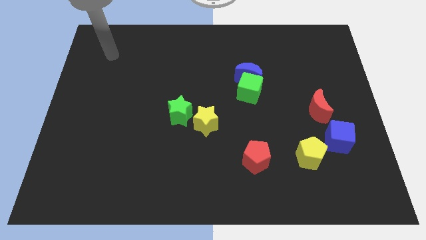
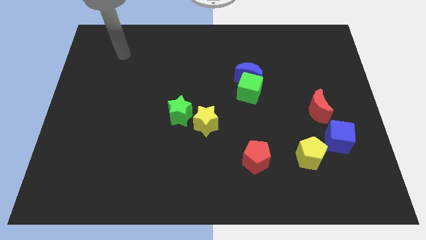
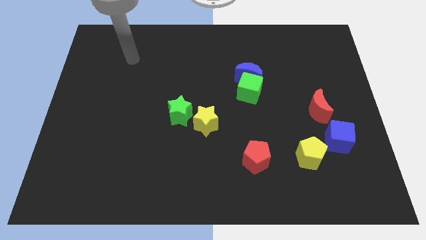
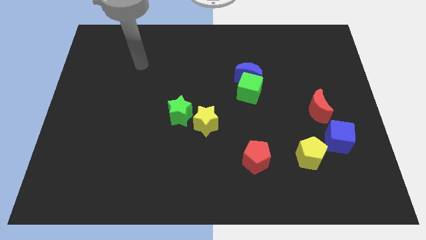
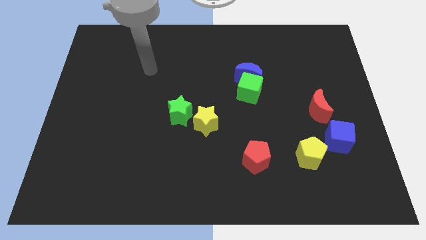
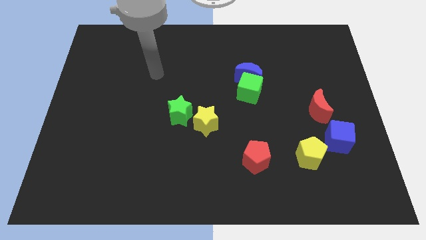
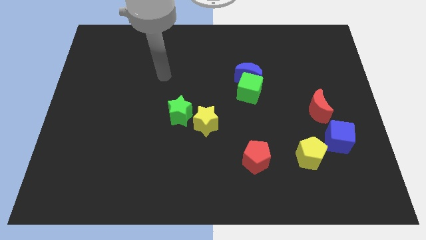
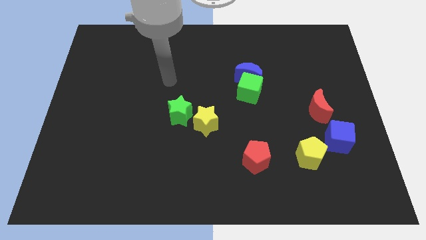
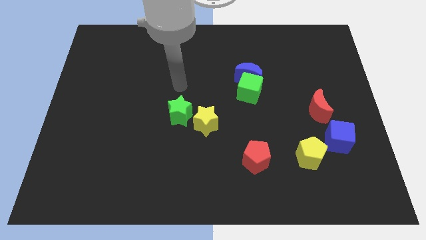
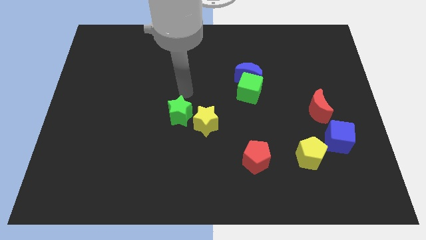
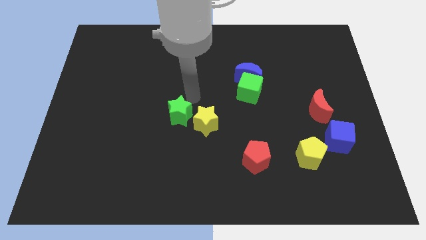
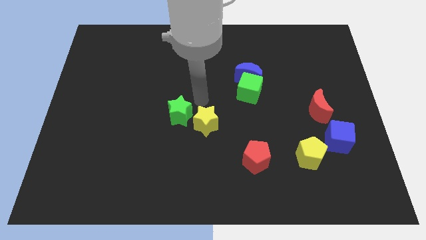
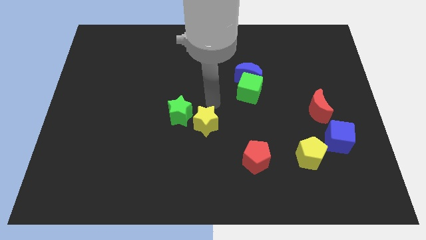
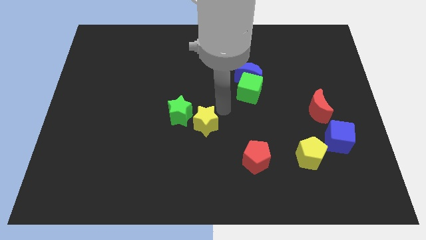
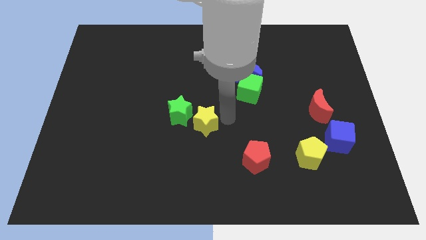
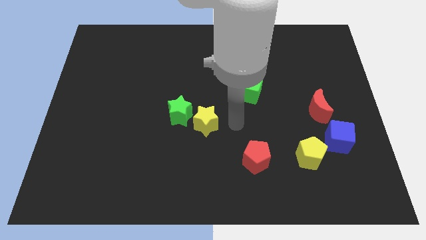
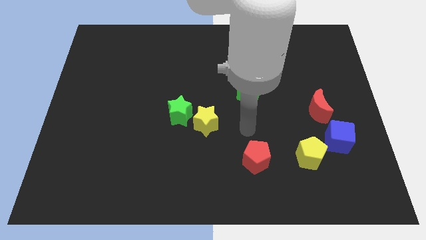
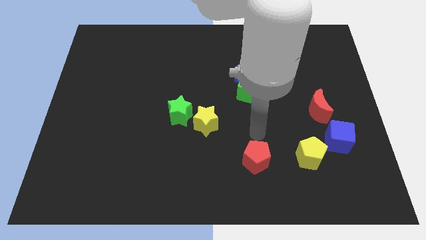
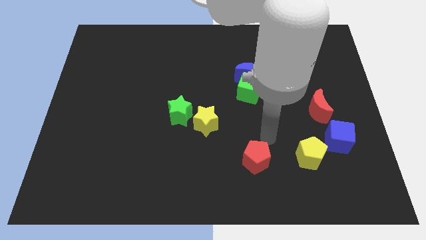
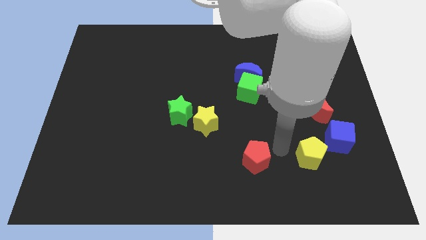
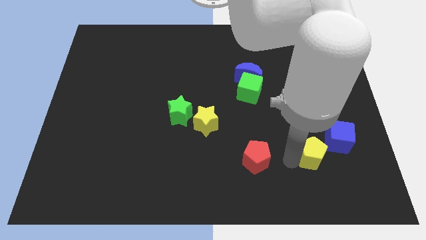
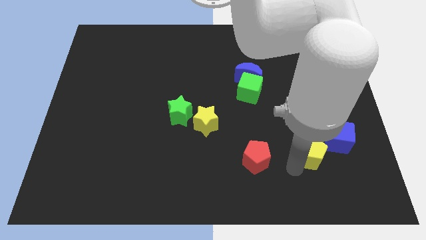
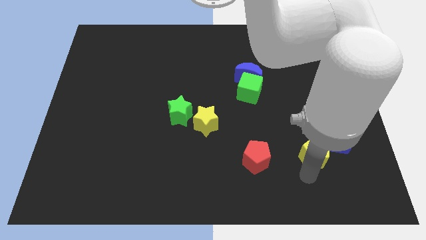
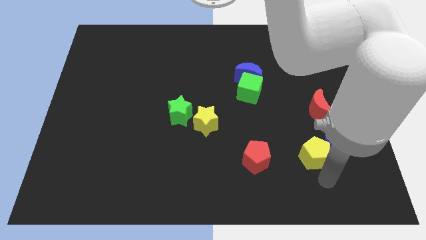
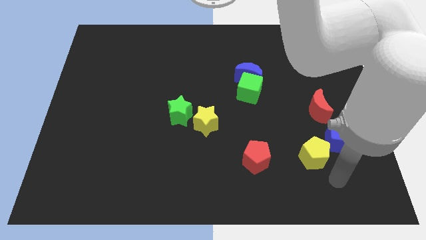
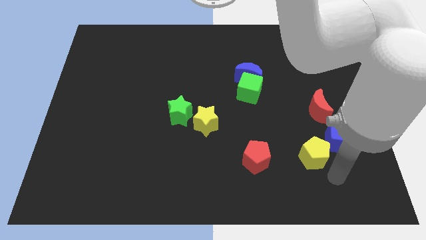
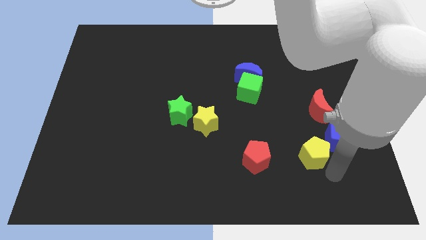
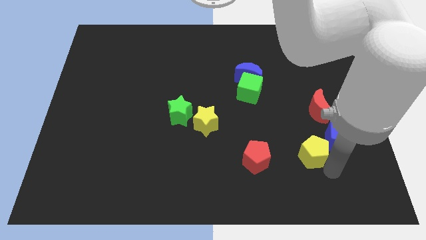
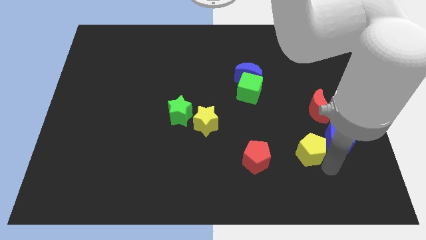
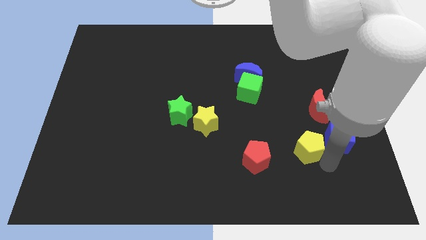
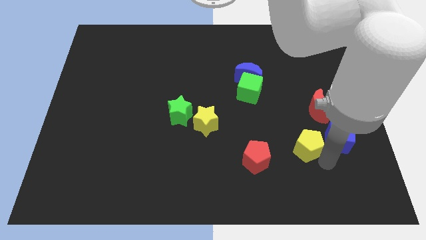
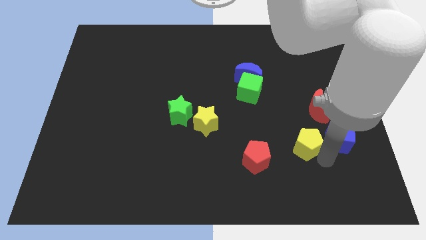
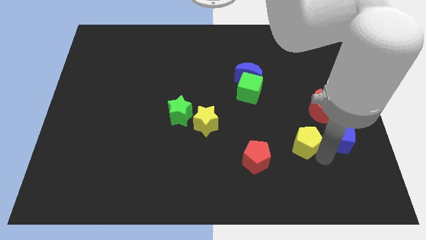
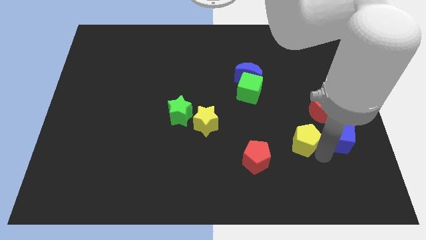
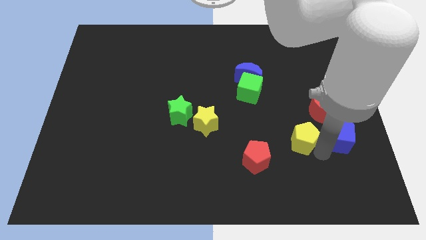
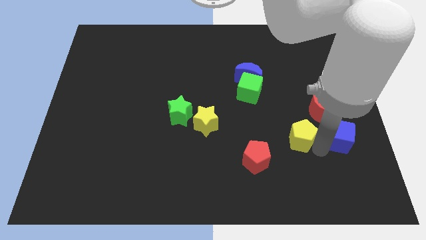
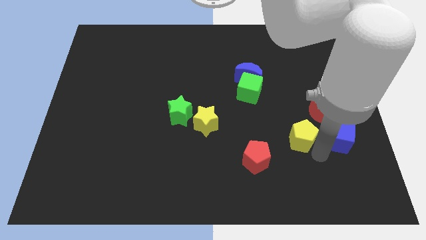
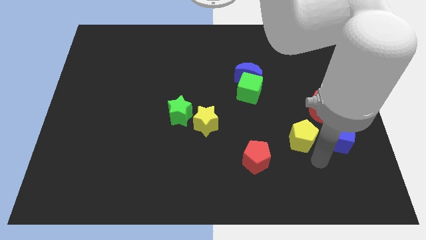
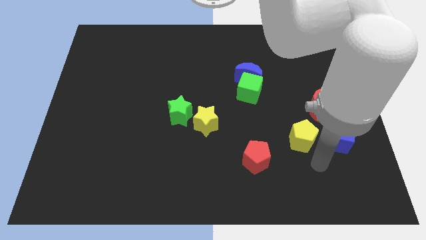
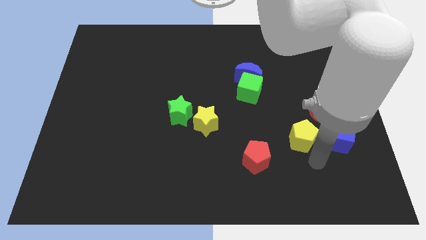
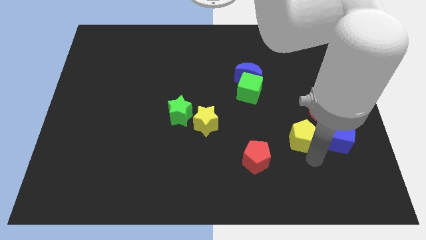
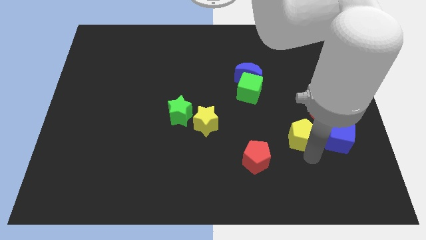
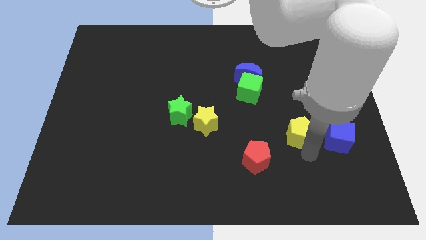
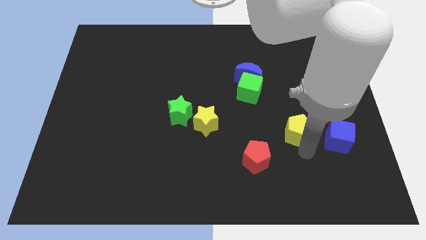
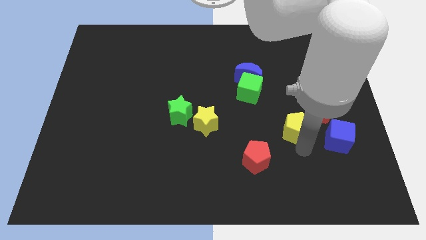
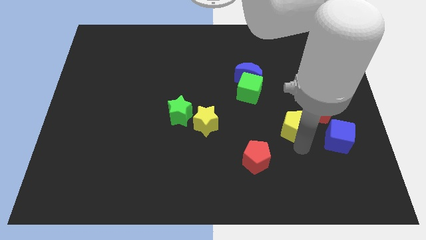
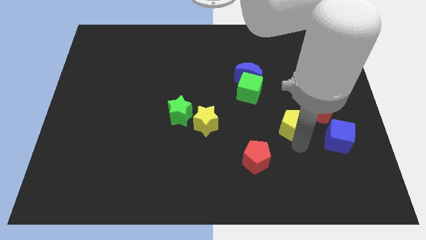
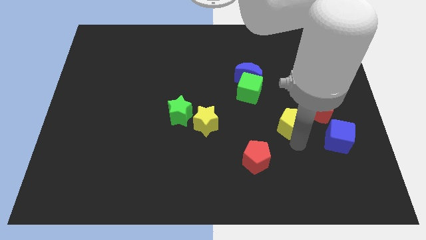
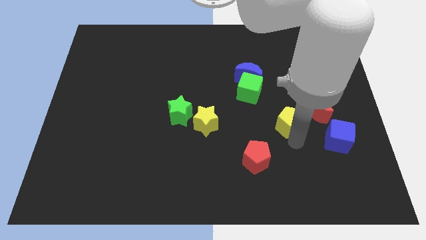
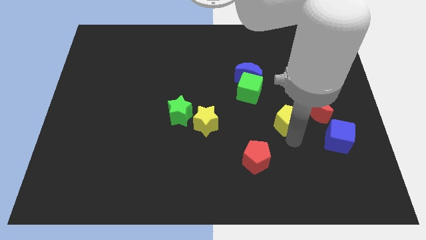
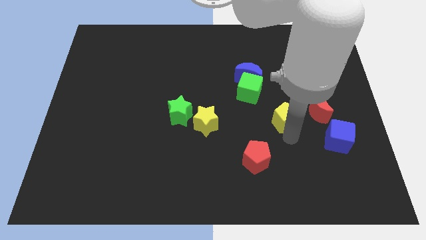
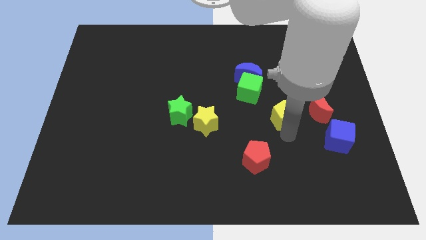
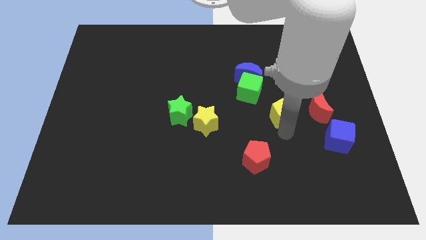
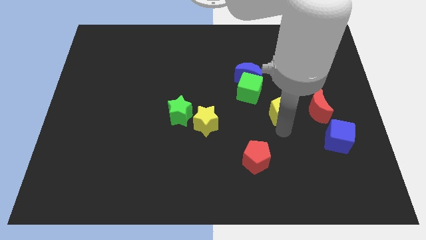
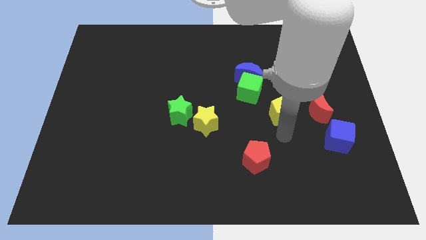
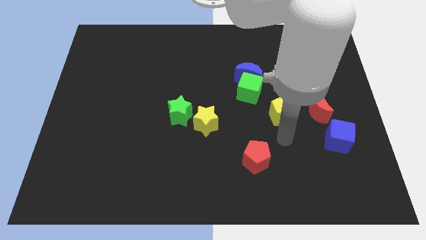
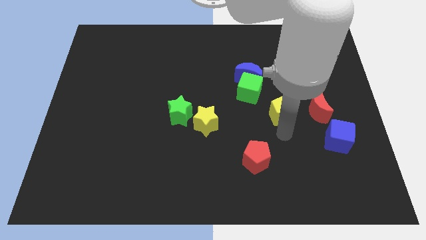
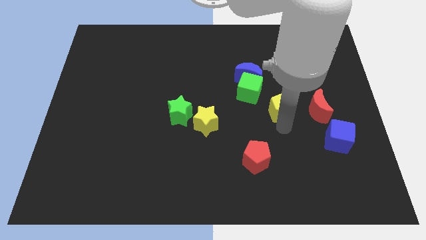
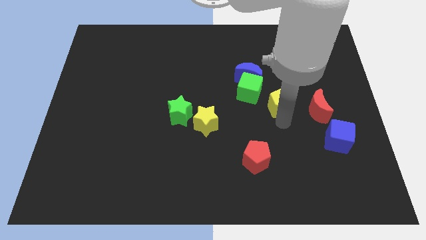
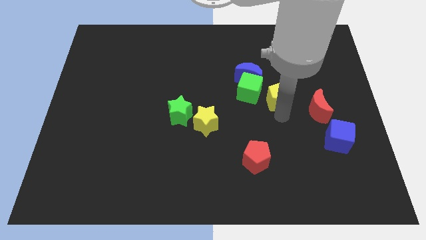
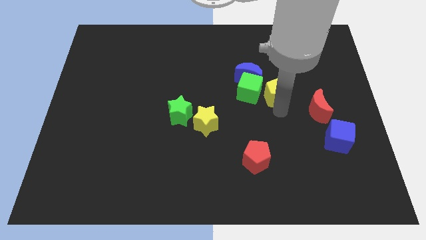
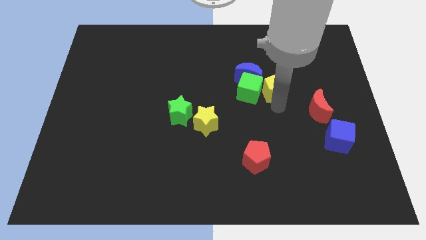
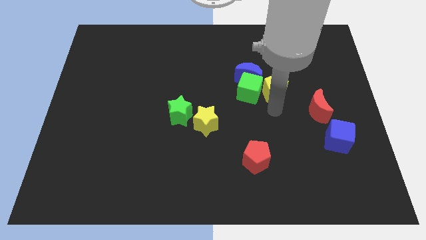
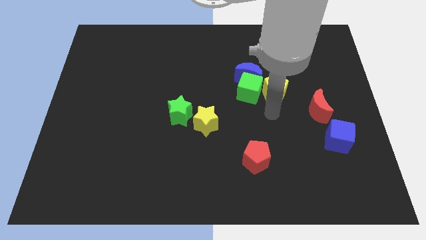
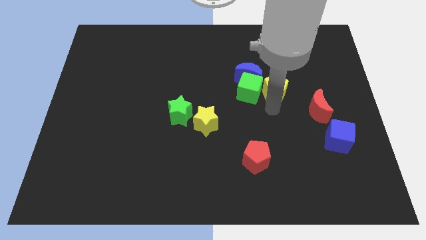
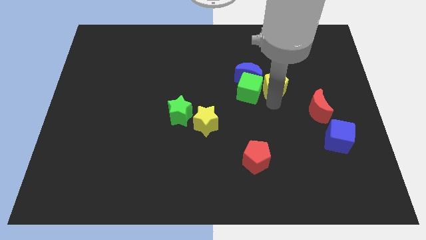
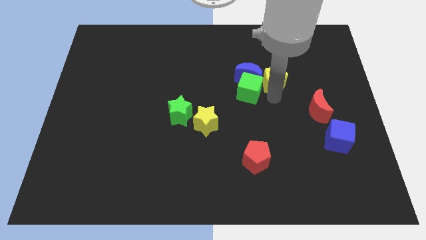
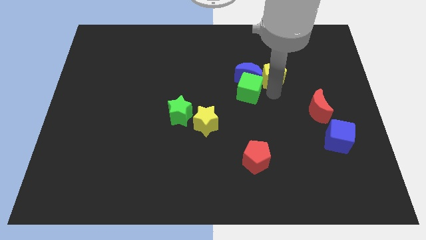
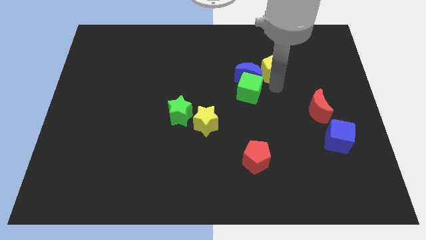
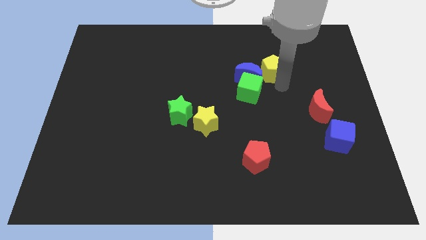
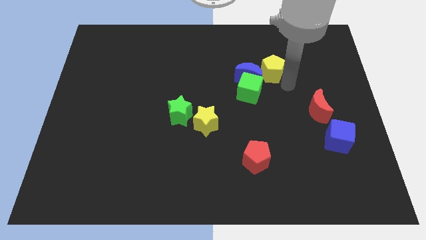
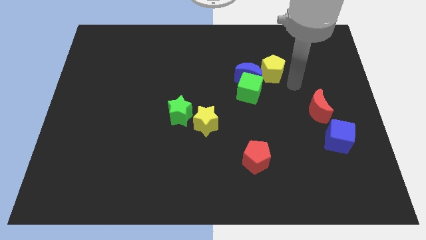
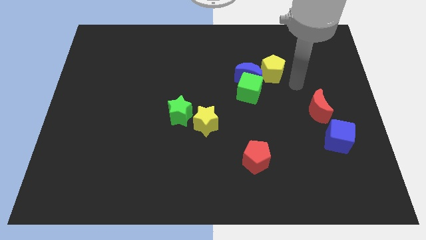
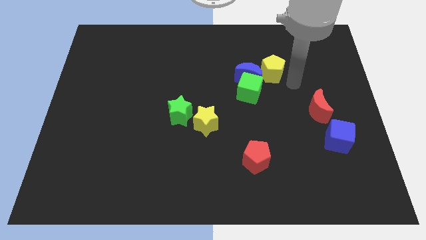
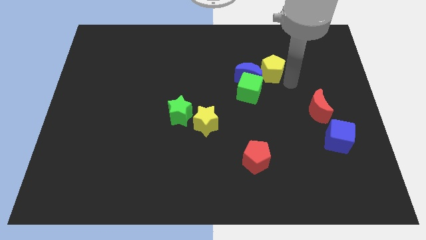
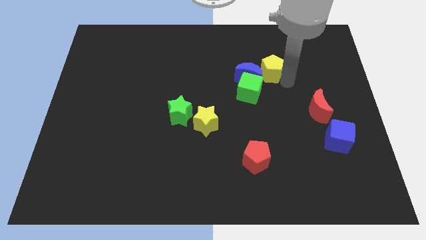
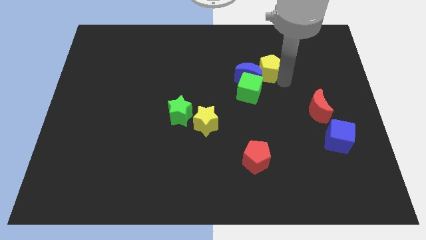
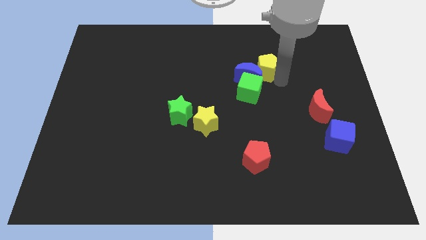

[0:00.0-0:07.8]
slide the yellow pentagon above the green cube

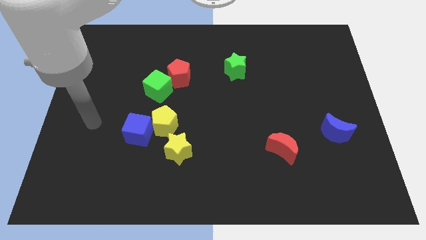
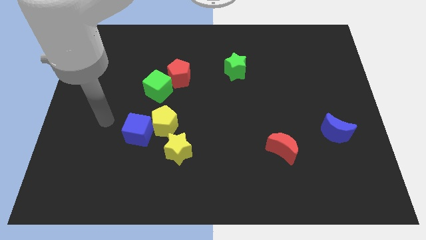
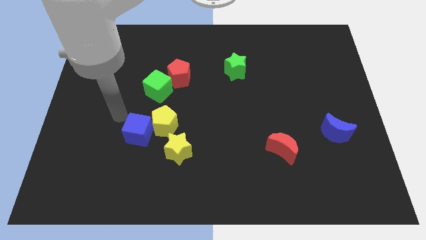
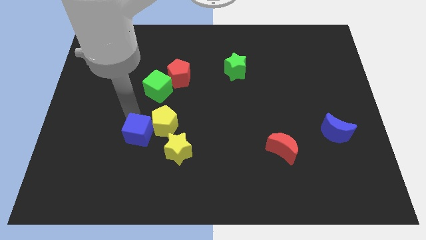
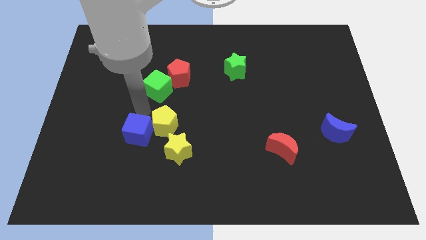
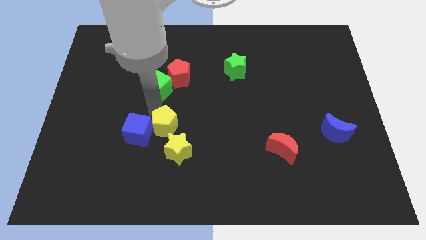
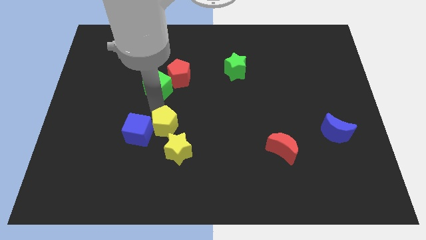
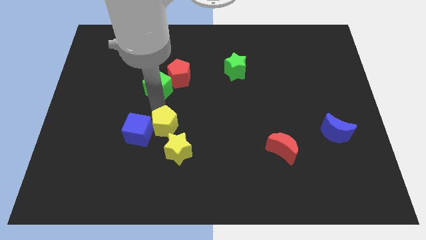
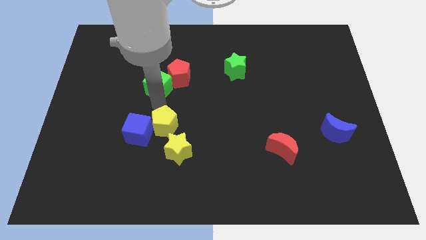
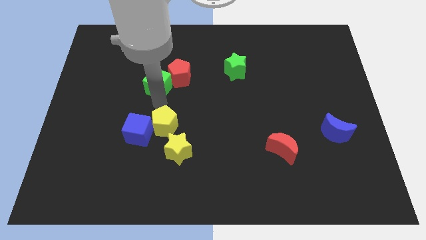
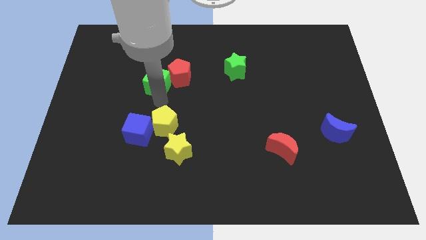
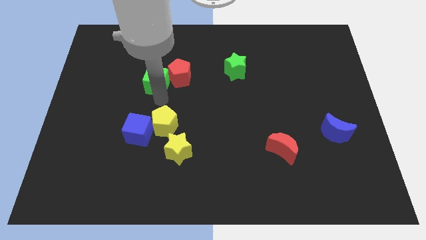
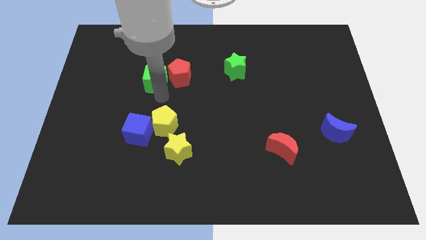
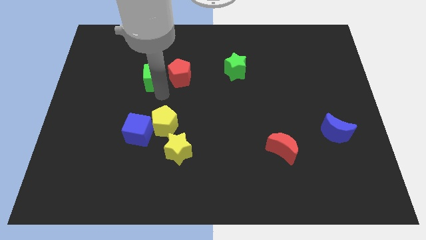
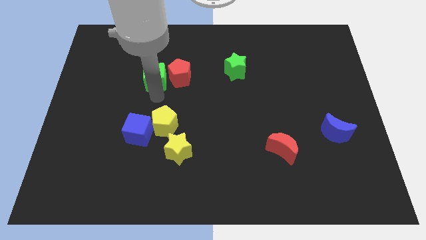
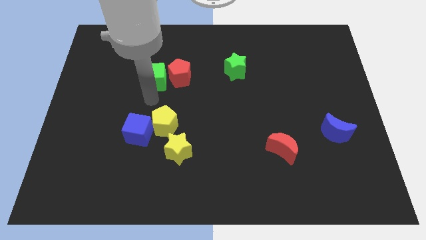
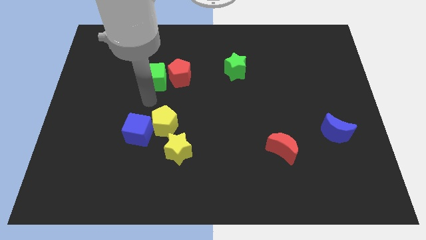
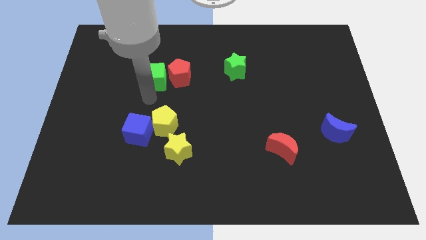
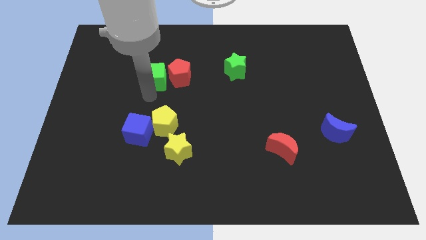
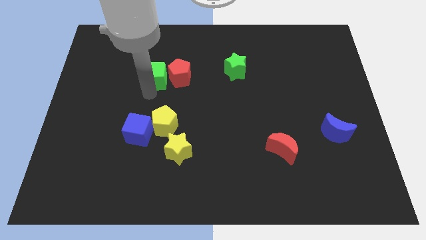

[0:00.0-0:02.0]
move the green cube diagonally up and to the left of the red pentagon
